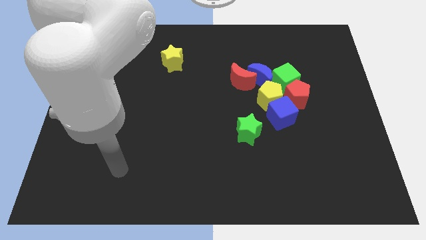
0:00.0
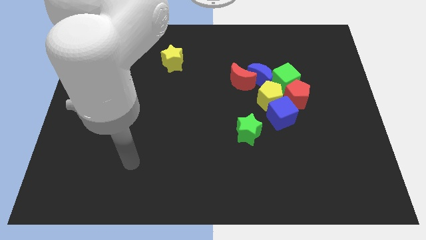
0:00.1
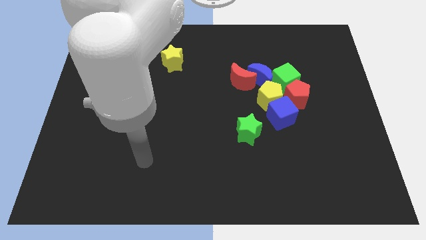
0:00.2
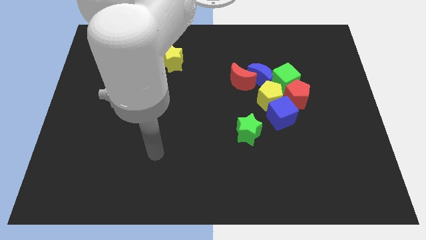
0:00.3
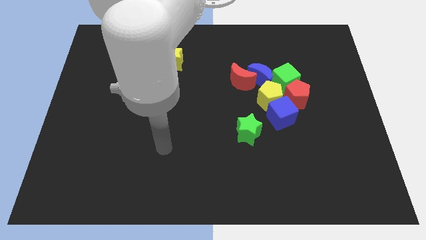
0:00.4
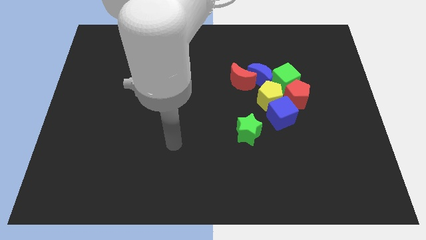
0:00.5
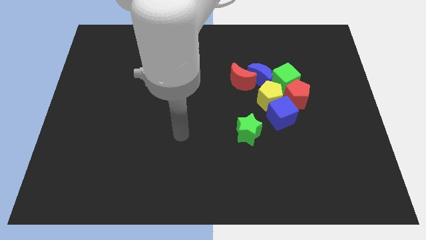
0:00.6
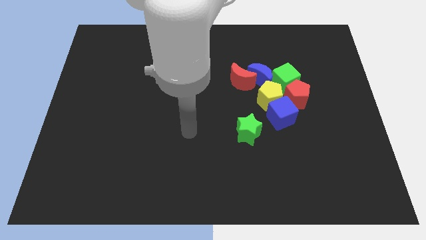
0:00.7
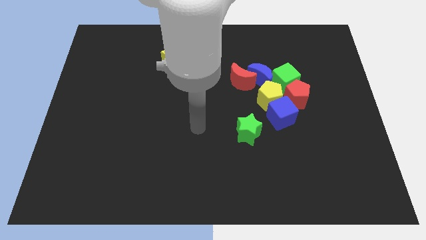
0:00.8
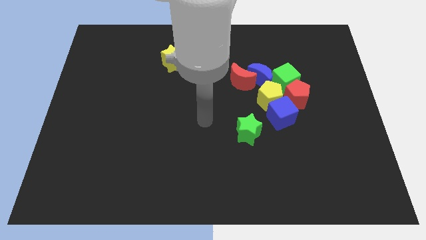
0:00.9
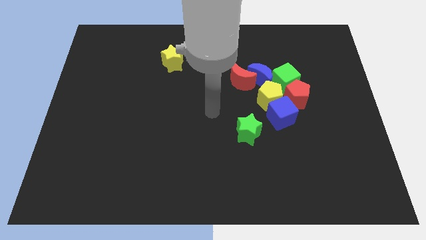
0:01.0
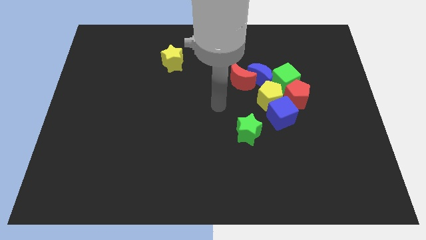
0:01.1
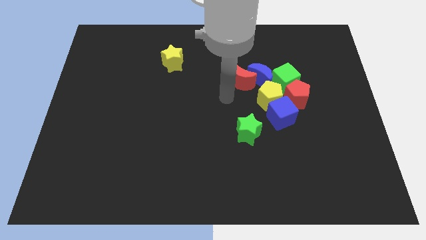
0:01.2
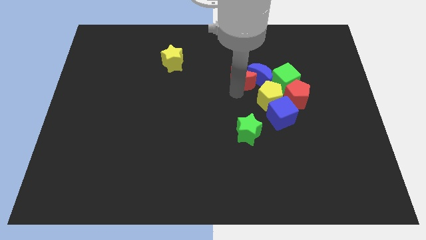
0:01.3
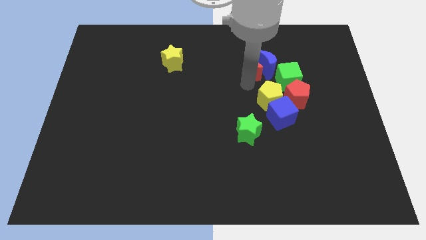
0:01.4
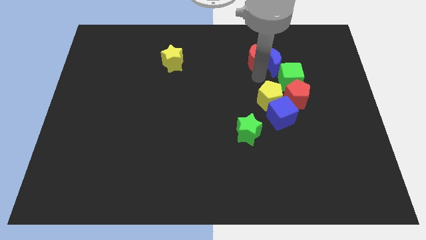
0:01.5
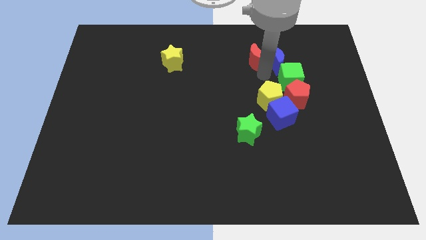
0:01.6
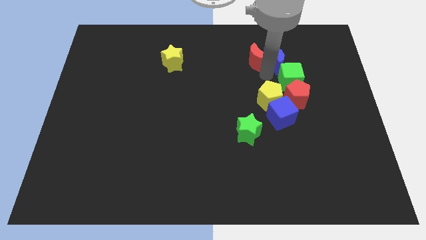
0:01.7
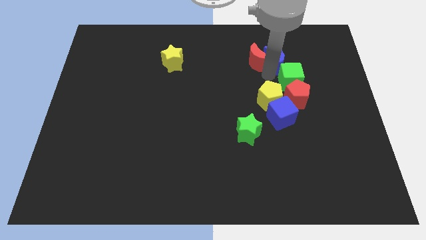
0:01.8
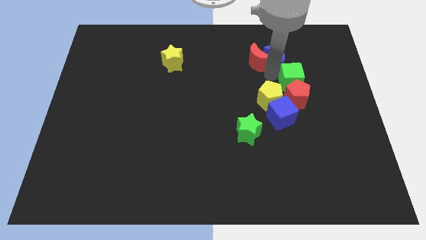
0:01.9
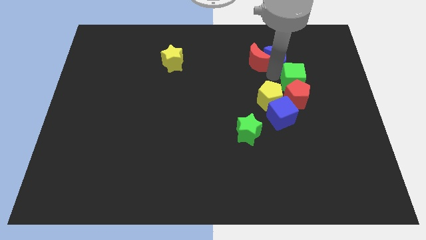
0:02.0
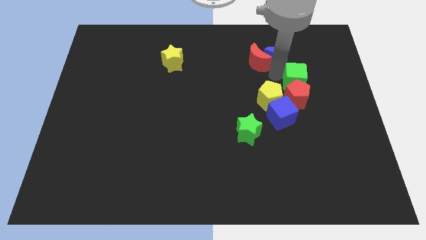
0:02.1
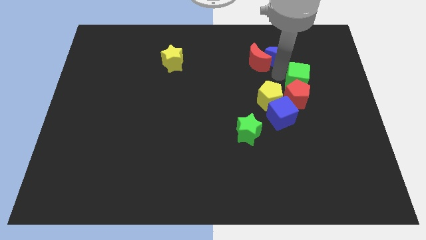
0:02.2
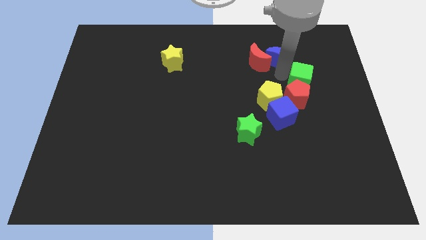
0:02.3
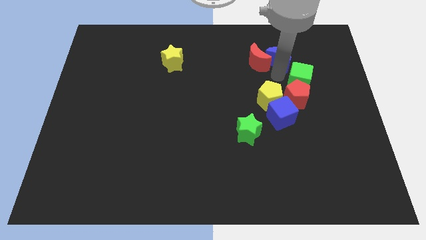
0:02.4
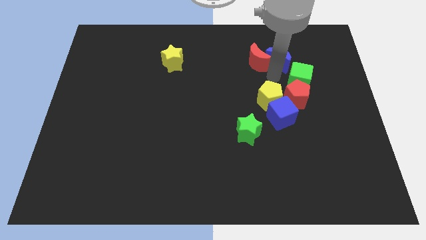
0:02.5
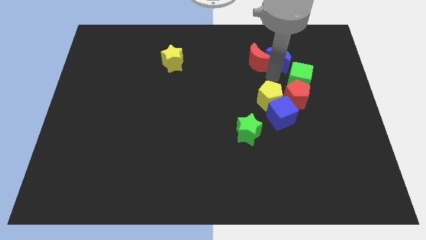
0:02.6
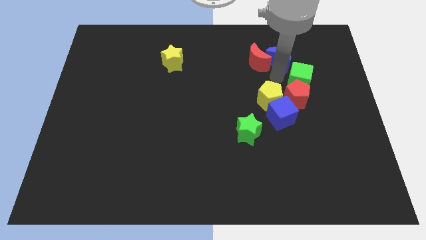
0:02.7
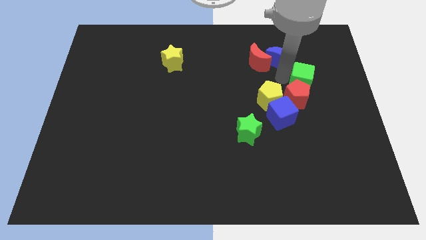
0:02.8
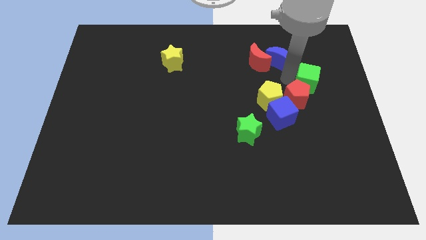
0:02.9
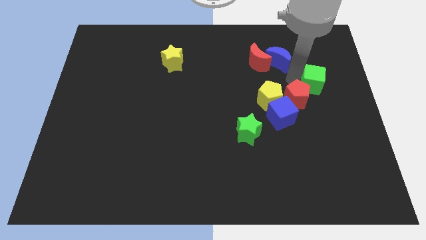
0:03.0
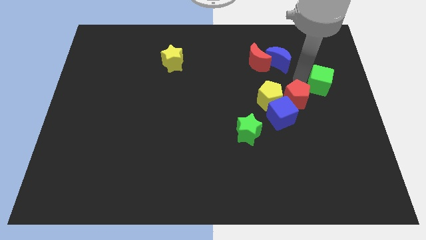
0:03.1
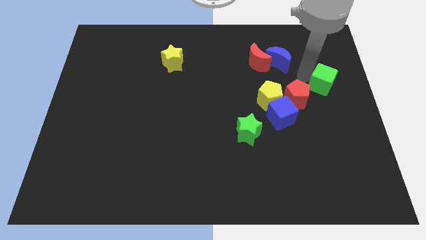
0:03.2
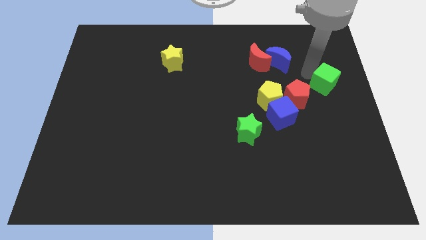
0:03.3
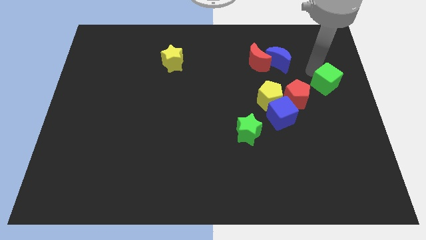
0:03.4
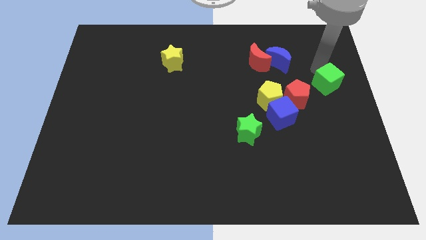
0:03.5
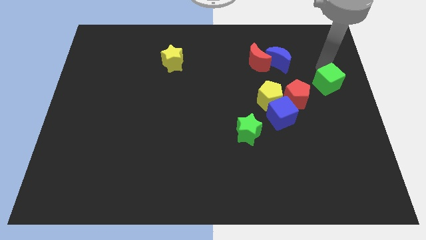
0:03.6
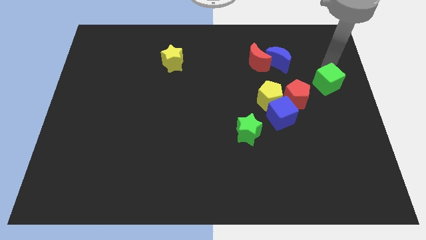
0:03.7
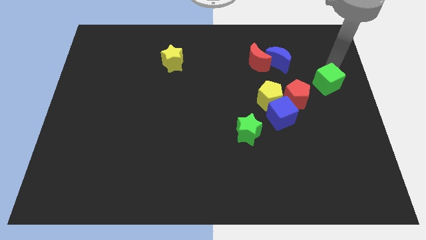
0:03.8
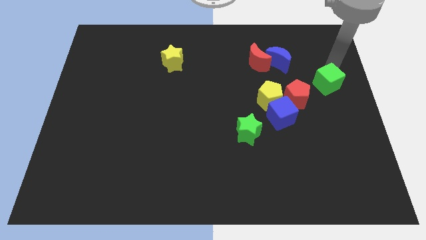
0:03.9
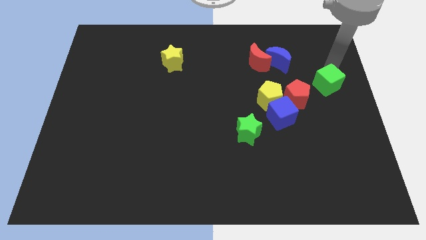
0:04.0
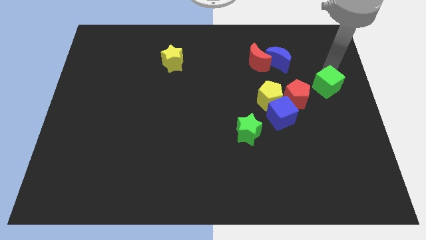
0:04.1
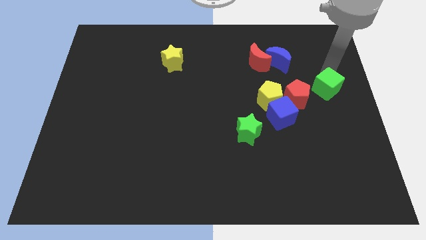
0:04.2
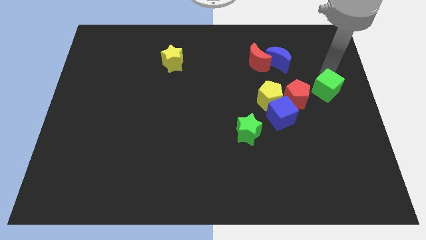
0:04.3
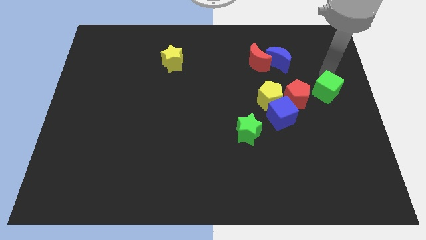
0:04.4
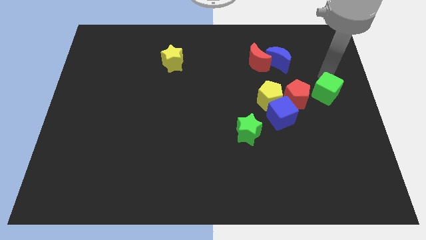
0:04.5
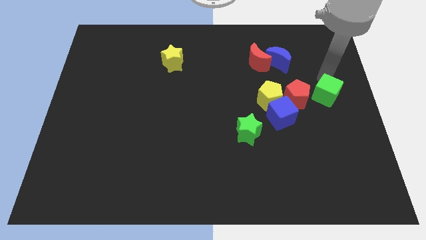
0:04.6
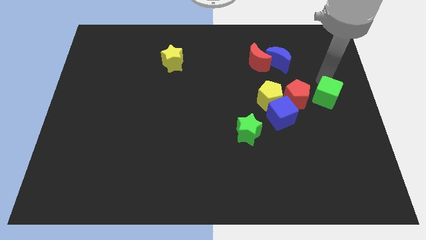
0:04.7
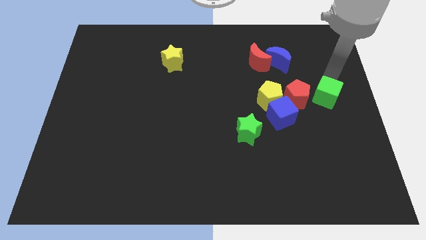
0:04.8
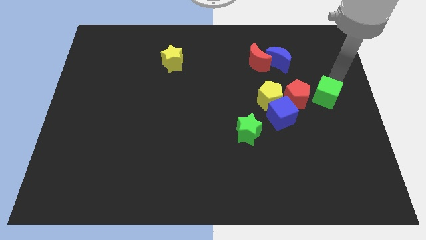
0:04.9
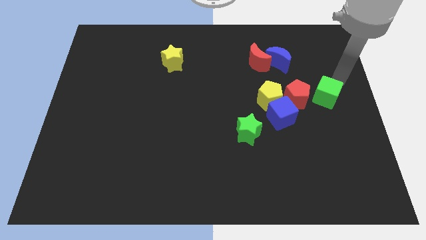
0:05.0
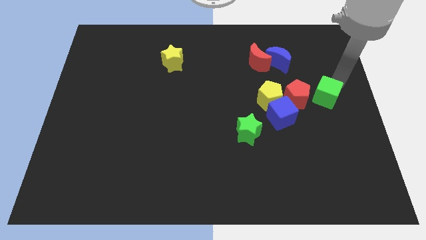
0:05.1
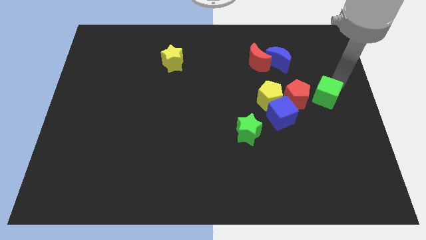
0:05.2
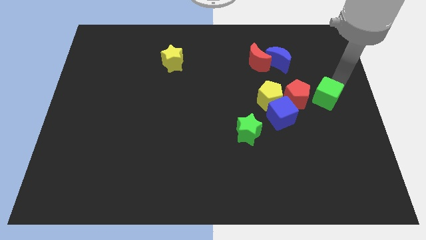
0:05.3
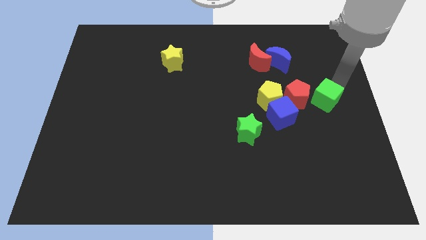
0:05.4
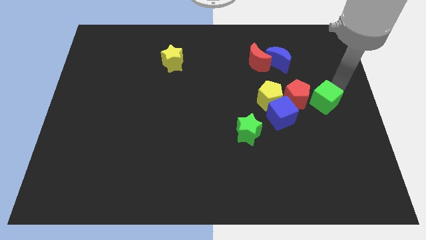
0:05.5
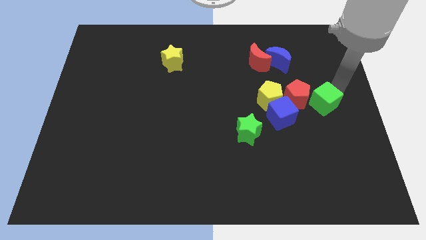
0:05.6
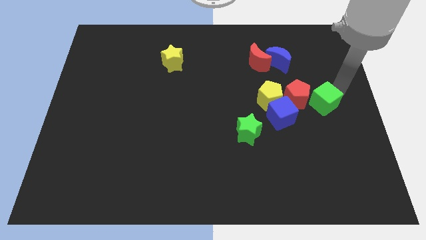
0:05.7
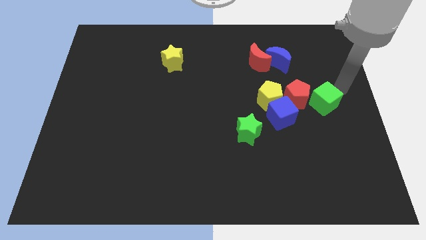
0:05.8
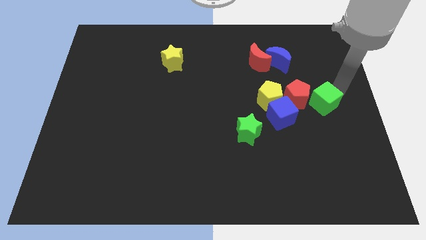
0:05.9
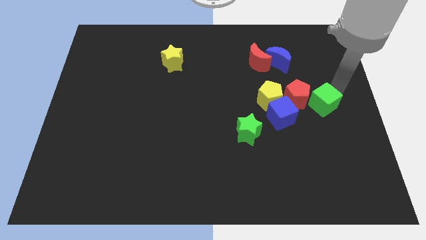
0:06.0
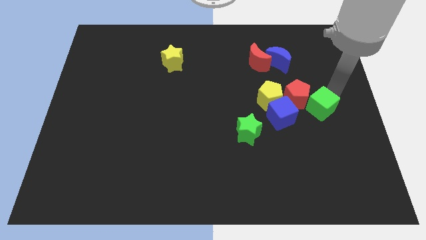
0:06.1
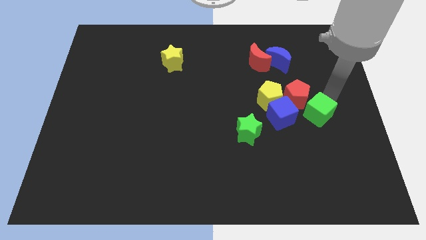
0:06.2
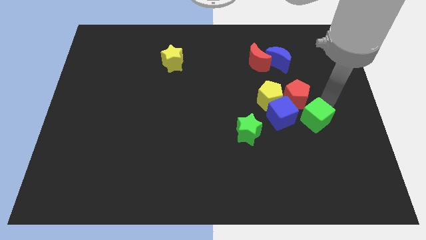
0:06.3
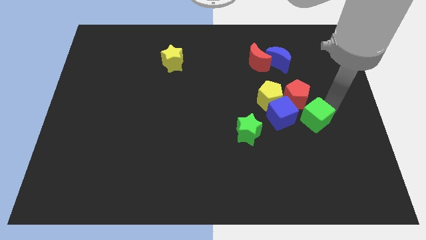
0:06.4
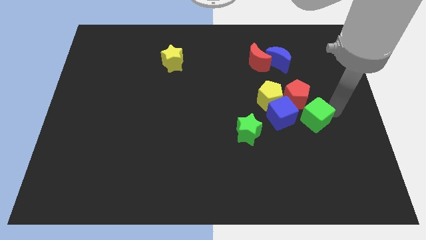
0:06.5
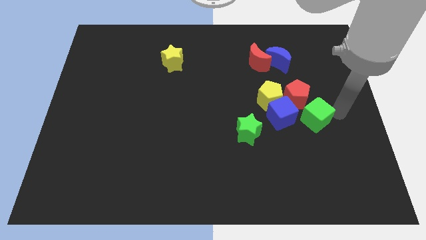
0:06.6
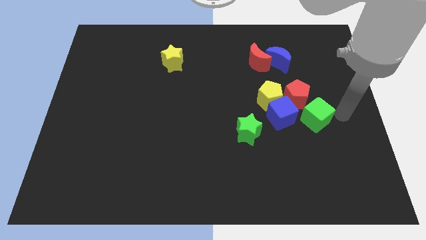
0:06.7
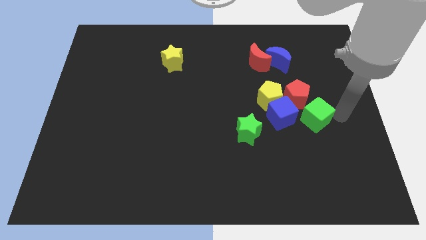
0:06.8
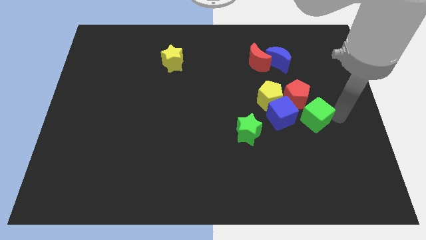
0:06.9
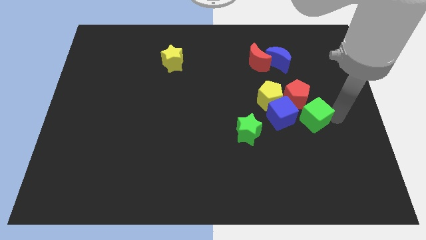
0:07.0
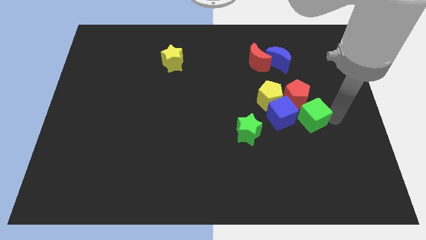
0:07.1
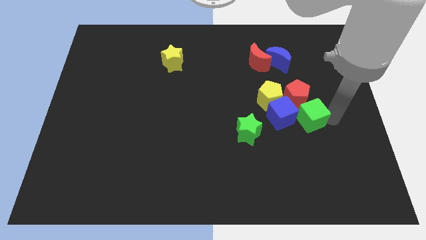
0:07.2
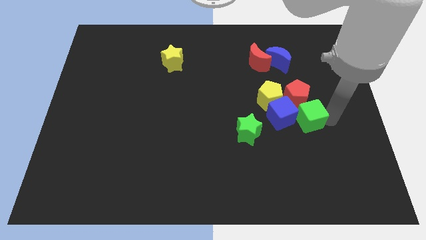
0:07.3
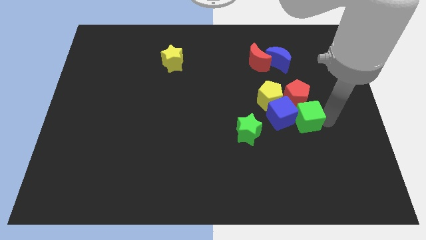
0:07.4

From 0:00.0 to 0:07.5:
put the green cube close to the blue cube
